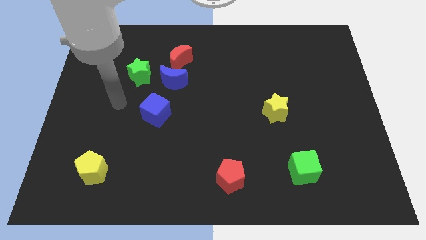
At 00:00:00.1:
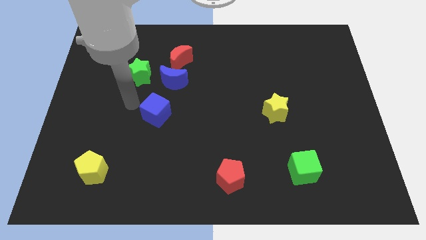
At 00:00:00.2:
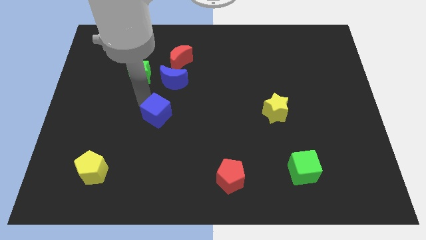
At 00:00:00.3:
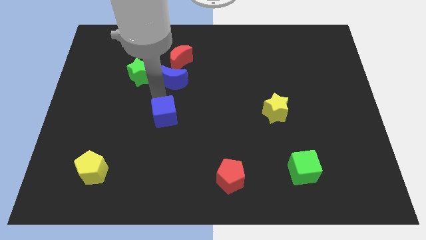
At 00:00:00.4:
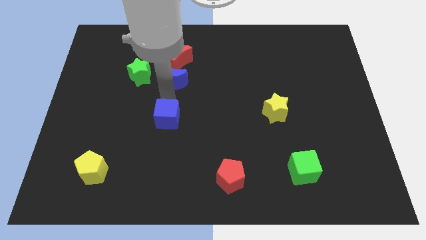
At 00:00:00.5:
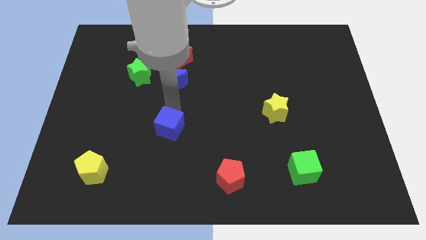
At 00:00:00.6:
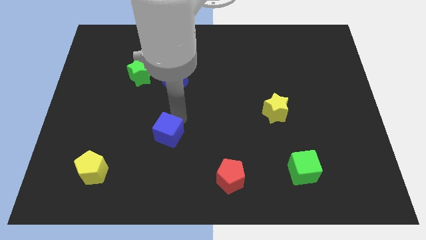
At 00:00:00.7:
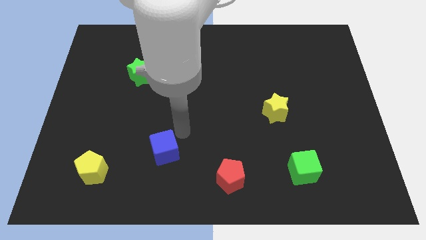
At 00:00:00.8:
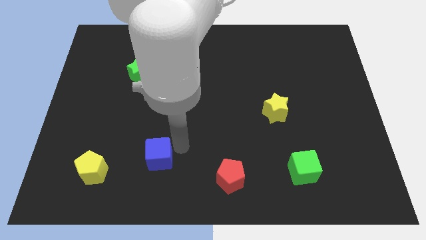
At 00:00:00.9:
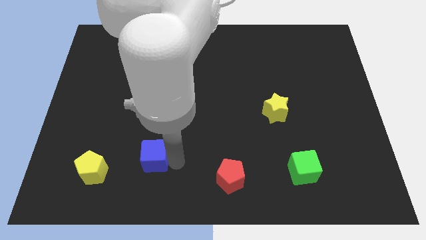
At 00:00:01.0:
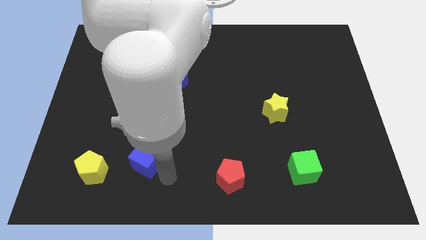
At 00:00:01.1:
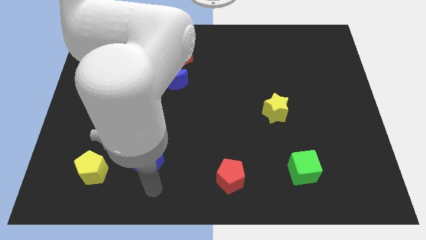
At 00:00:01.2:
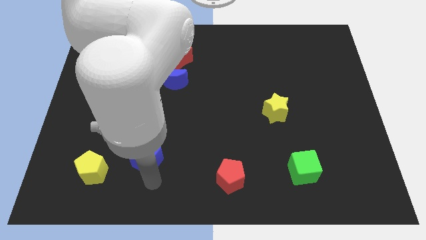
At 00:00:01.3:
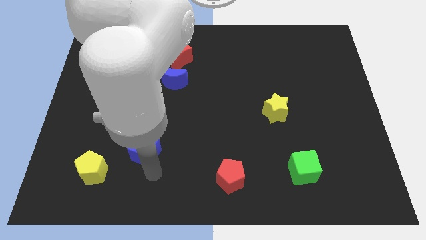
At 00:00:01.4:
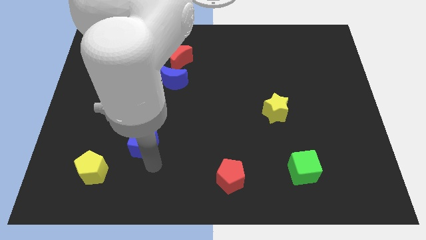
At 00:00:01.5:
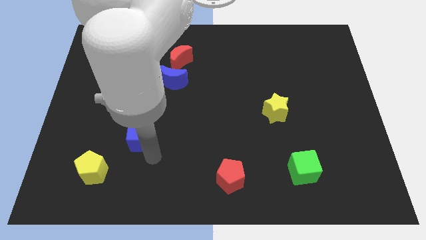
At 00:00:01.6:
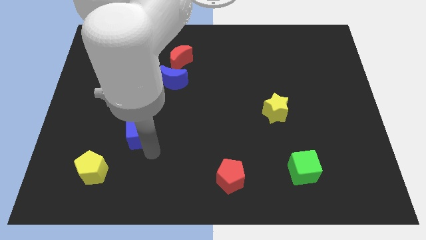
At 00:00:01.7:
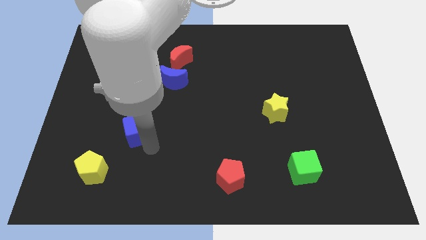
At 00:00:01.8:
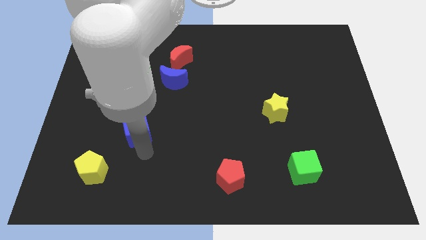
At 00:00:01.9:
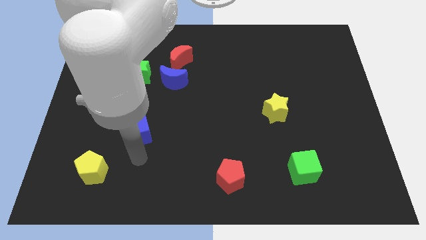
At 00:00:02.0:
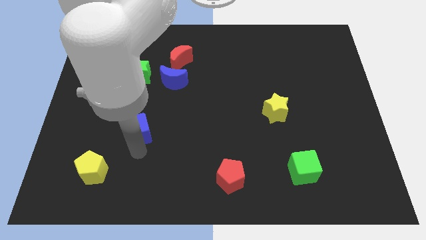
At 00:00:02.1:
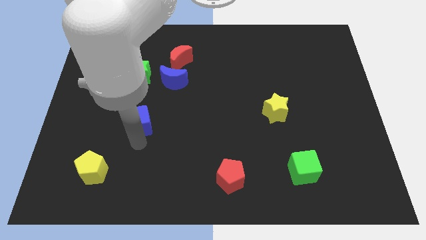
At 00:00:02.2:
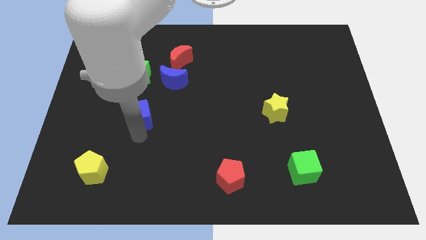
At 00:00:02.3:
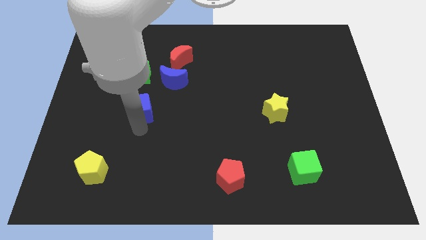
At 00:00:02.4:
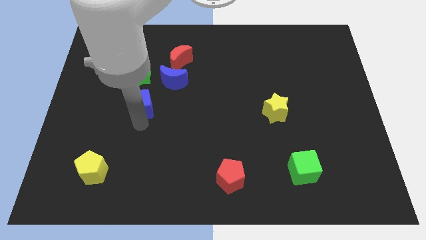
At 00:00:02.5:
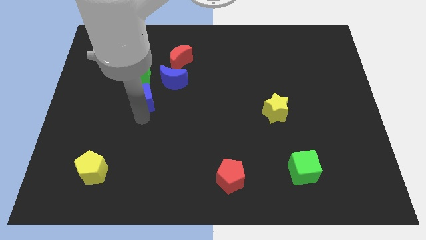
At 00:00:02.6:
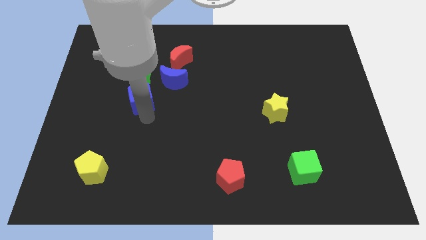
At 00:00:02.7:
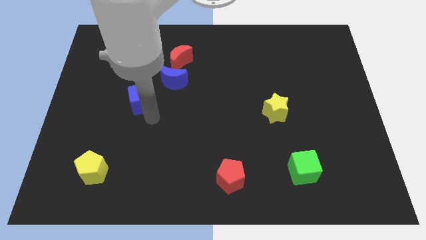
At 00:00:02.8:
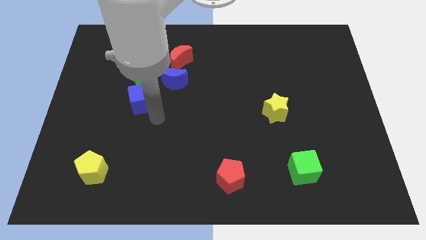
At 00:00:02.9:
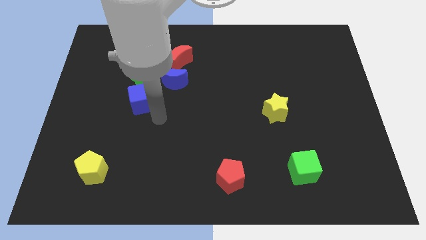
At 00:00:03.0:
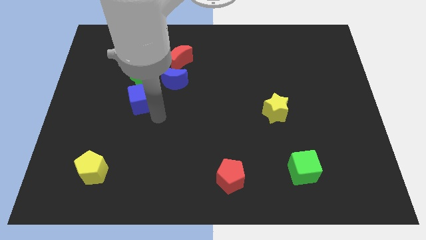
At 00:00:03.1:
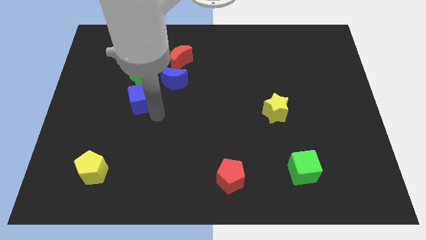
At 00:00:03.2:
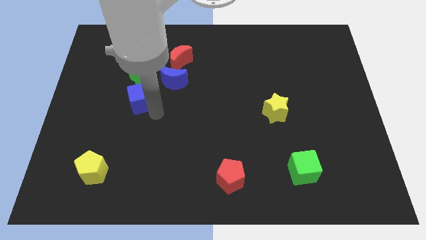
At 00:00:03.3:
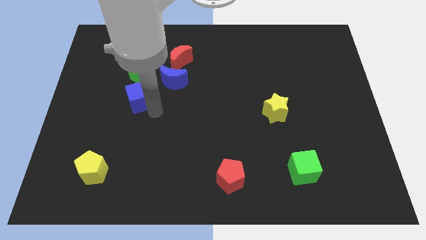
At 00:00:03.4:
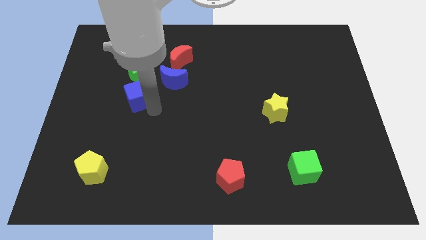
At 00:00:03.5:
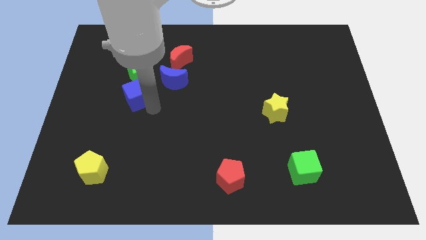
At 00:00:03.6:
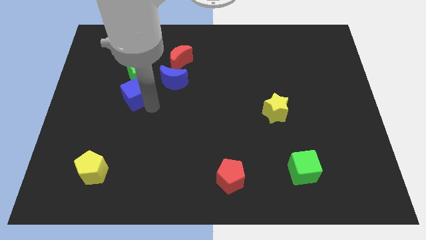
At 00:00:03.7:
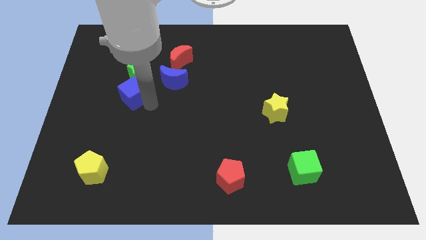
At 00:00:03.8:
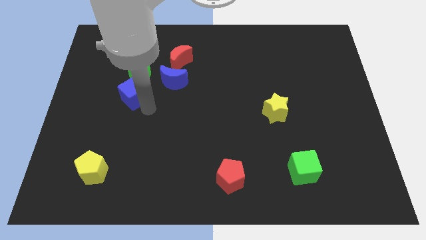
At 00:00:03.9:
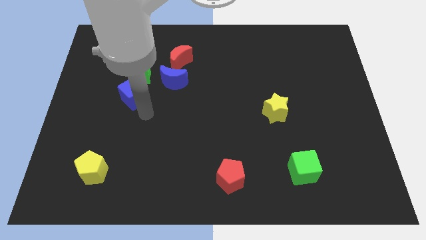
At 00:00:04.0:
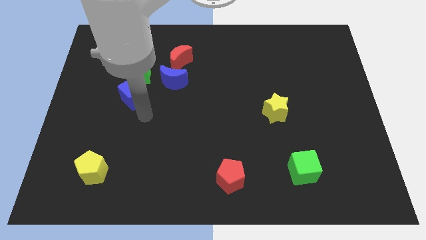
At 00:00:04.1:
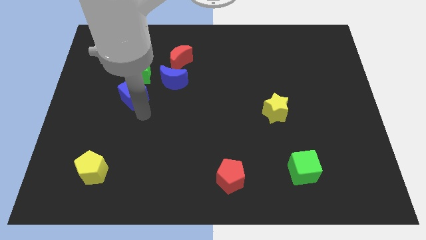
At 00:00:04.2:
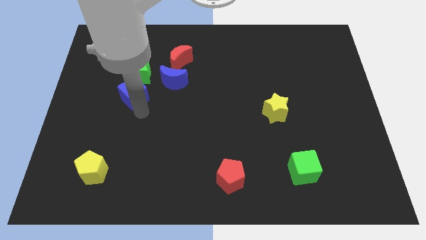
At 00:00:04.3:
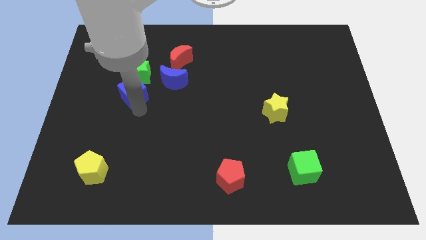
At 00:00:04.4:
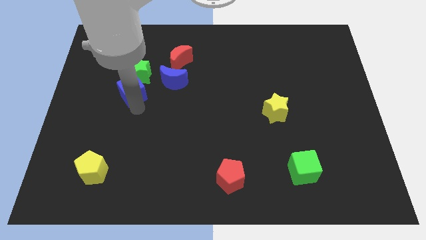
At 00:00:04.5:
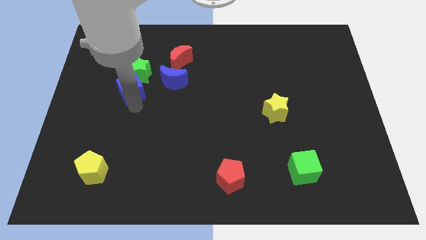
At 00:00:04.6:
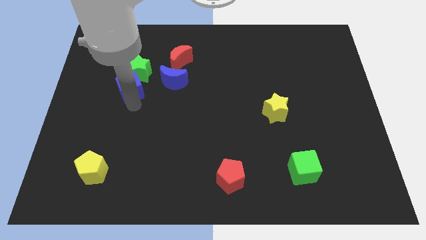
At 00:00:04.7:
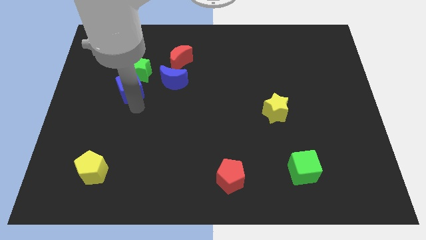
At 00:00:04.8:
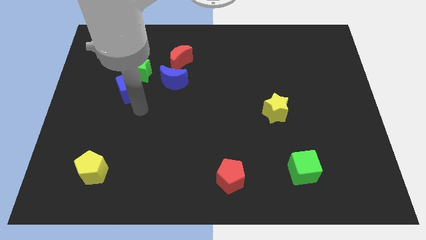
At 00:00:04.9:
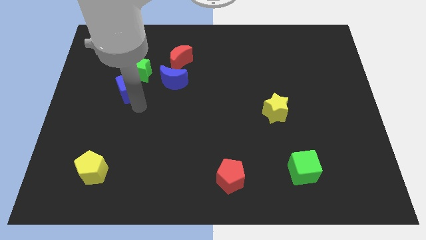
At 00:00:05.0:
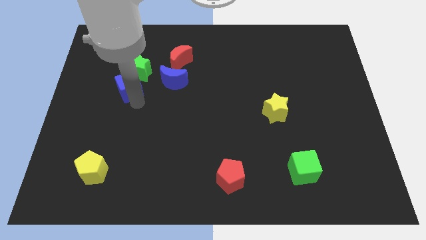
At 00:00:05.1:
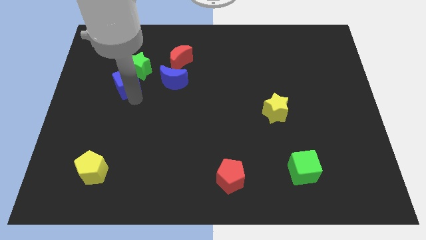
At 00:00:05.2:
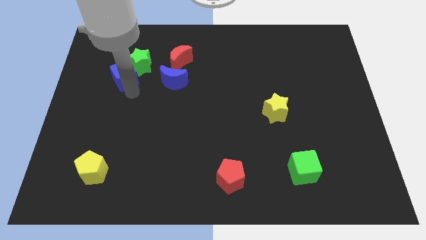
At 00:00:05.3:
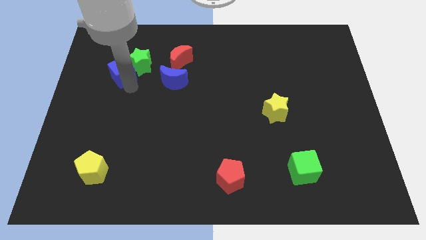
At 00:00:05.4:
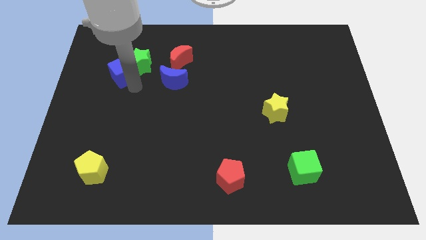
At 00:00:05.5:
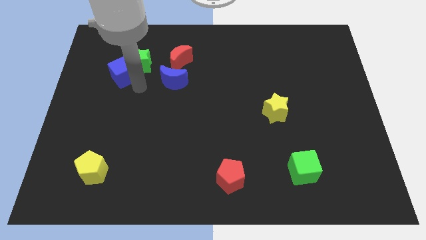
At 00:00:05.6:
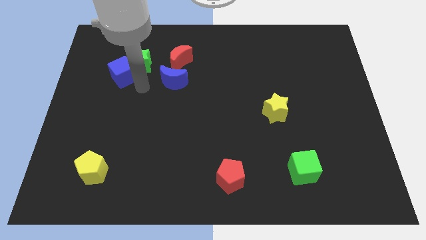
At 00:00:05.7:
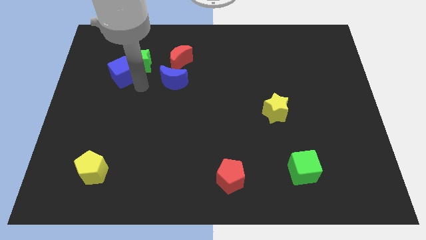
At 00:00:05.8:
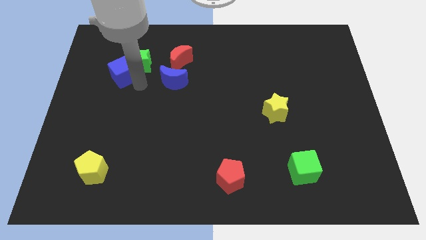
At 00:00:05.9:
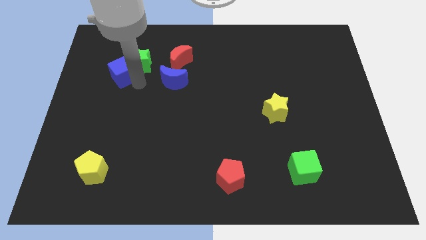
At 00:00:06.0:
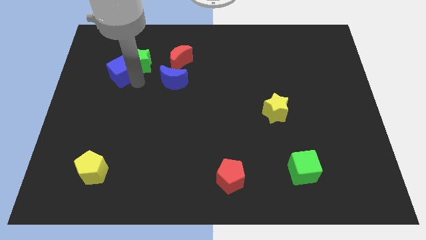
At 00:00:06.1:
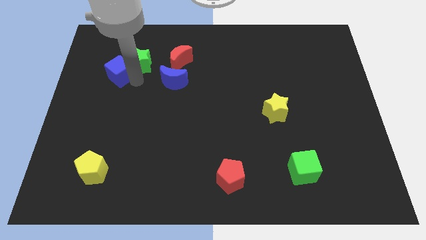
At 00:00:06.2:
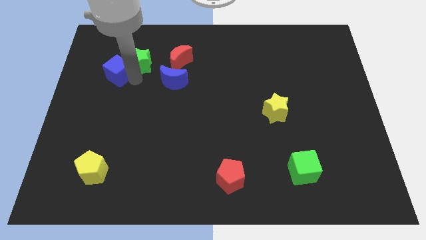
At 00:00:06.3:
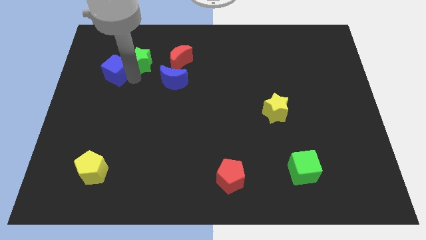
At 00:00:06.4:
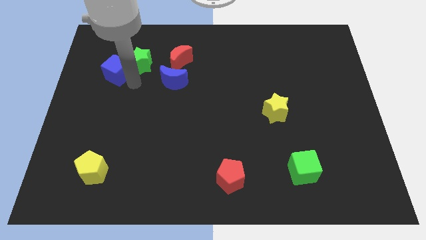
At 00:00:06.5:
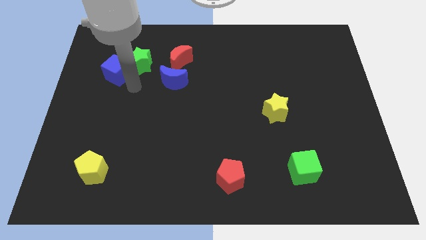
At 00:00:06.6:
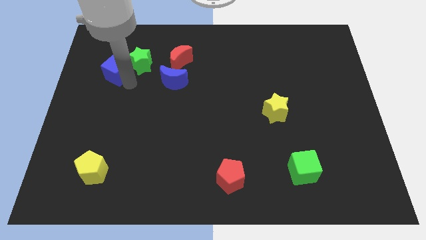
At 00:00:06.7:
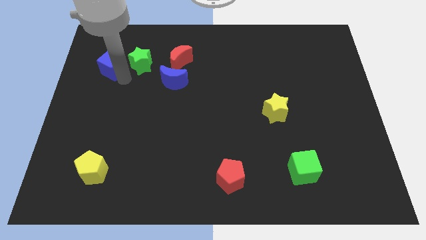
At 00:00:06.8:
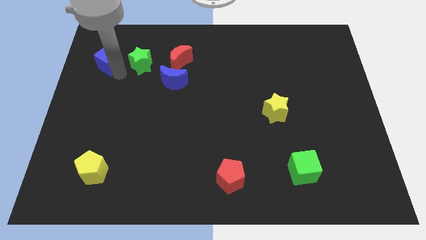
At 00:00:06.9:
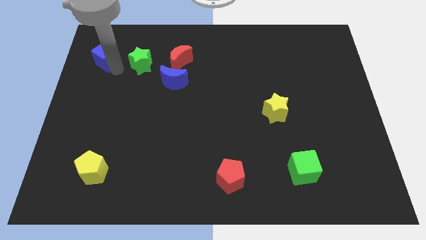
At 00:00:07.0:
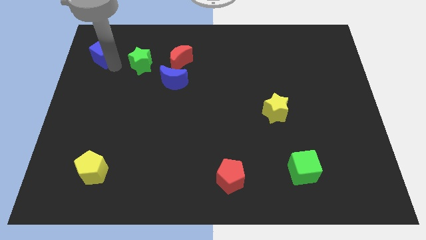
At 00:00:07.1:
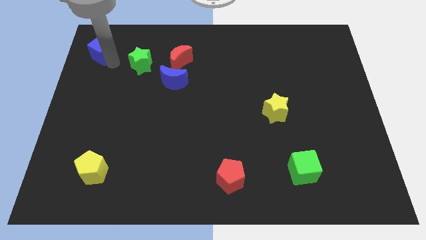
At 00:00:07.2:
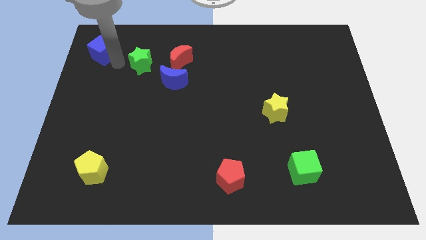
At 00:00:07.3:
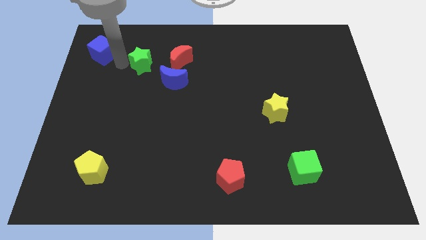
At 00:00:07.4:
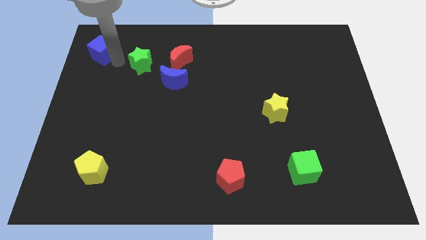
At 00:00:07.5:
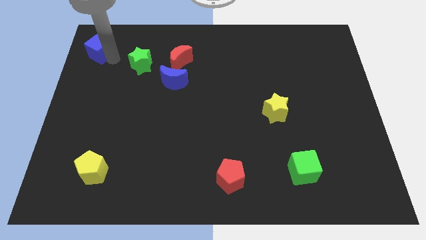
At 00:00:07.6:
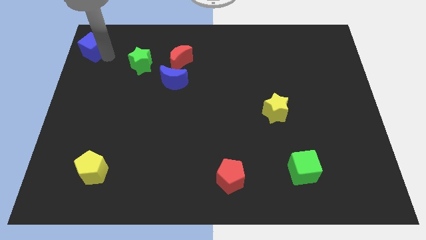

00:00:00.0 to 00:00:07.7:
push the blue cube to the top left
